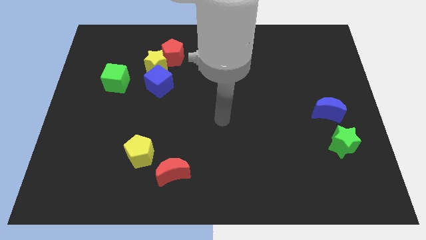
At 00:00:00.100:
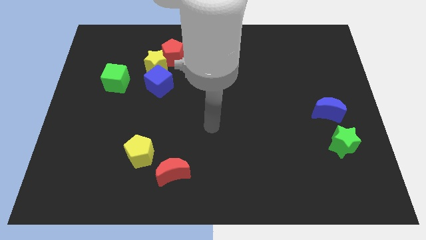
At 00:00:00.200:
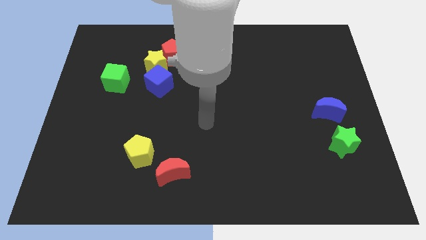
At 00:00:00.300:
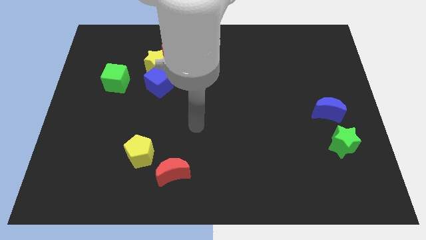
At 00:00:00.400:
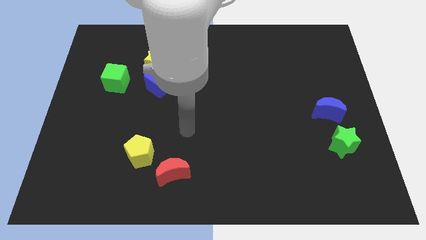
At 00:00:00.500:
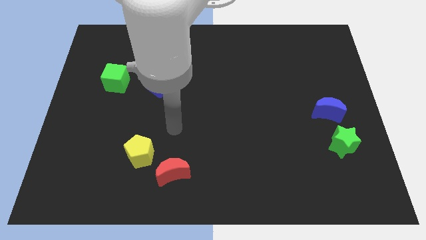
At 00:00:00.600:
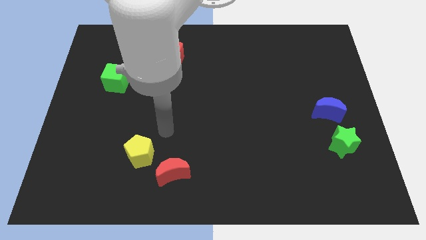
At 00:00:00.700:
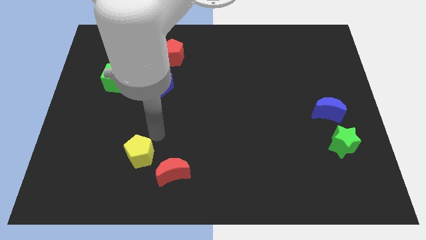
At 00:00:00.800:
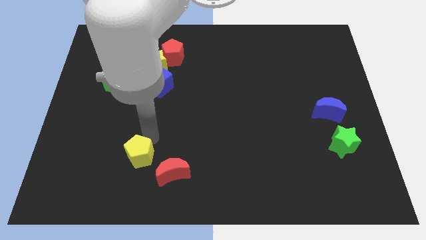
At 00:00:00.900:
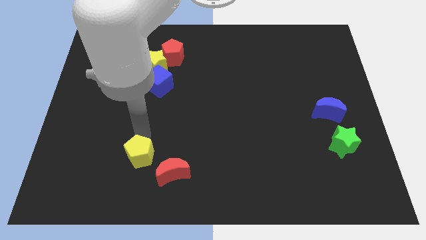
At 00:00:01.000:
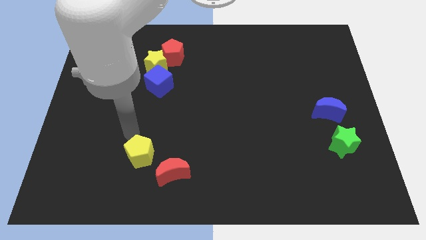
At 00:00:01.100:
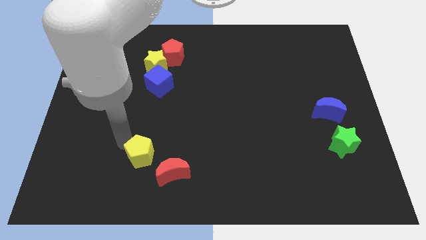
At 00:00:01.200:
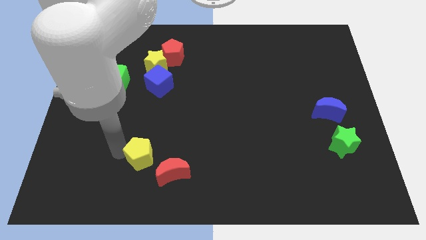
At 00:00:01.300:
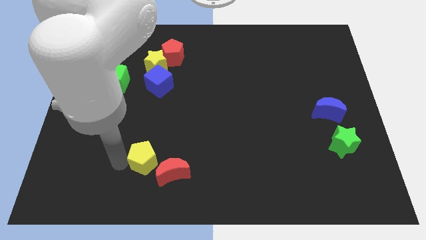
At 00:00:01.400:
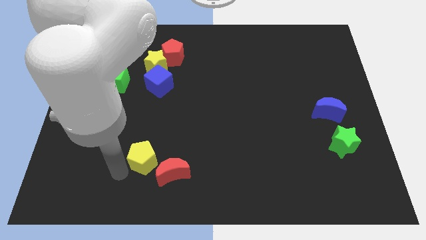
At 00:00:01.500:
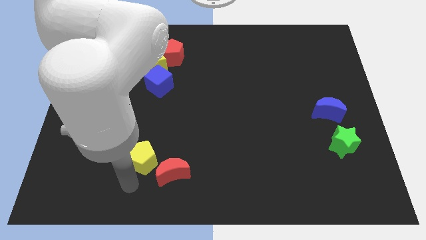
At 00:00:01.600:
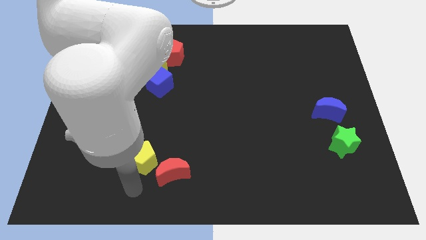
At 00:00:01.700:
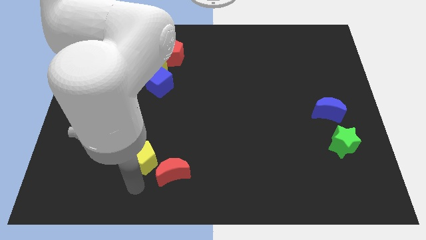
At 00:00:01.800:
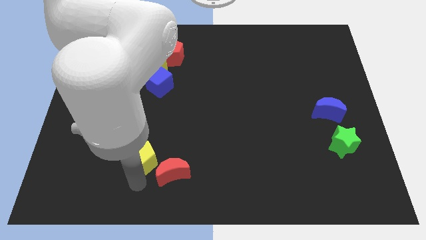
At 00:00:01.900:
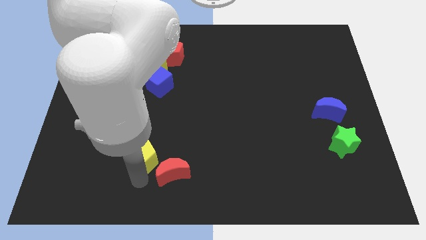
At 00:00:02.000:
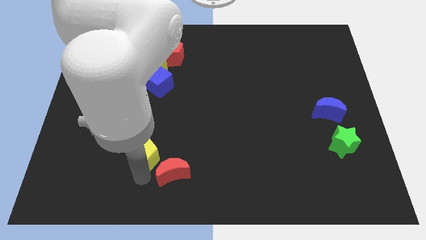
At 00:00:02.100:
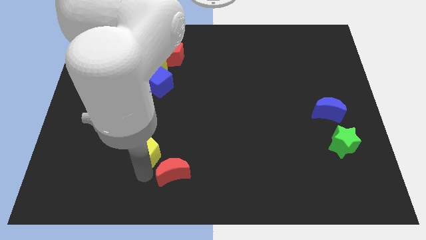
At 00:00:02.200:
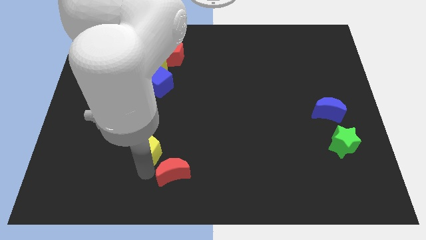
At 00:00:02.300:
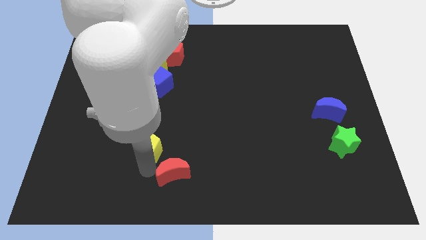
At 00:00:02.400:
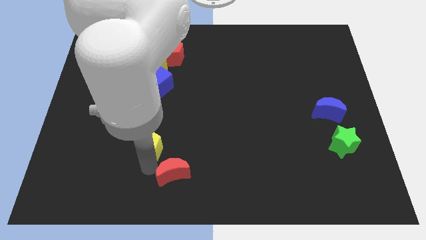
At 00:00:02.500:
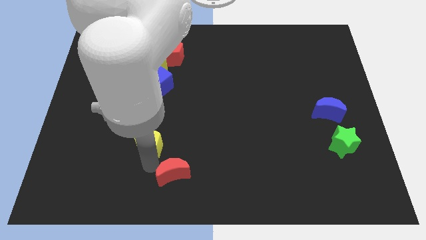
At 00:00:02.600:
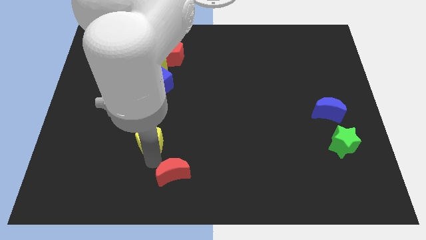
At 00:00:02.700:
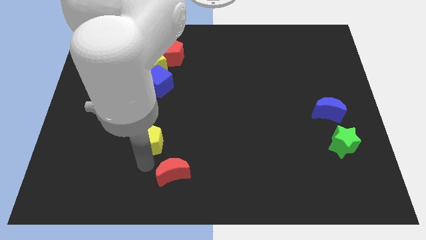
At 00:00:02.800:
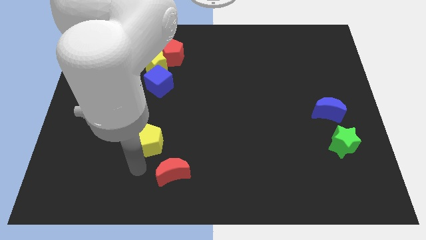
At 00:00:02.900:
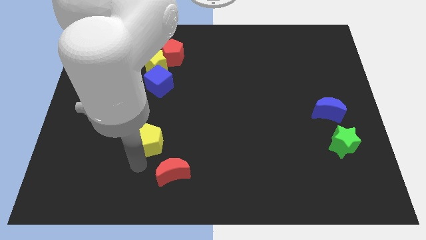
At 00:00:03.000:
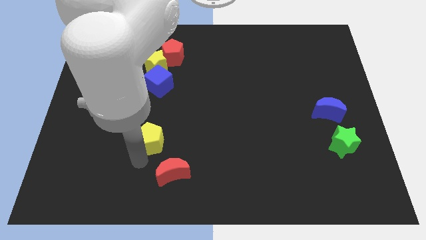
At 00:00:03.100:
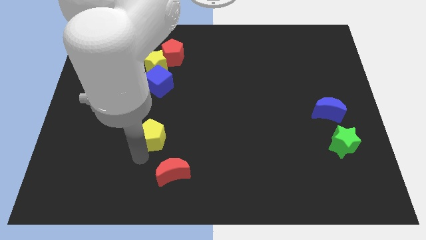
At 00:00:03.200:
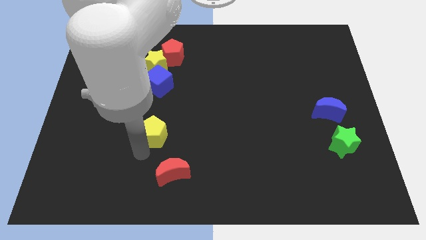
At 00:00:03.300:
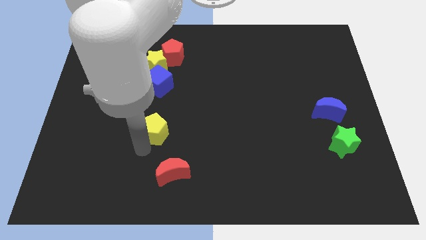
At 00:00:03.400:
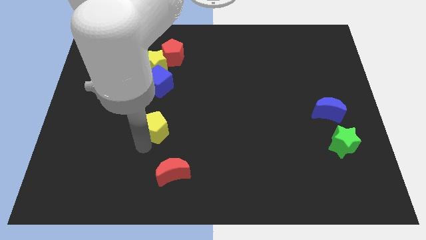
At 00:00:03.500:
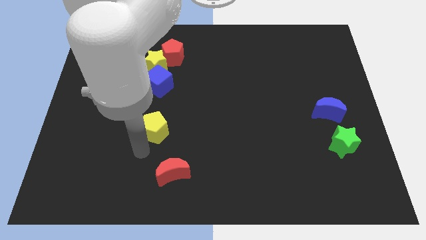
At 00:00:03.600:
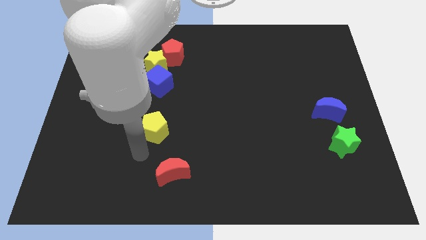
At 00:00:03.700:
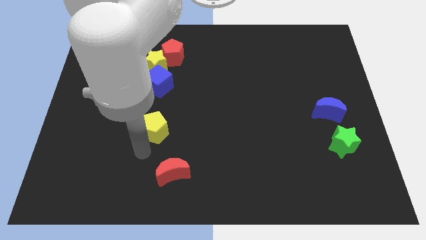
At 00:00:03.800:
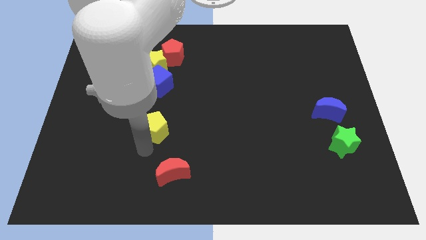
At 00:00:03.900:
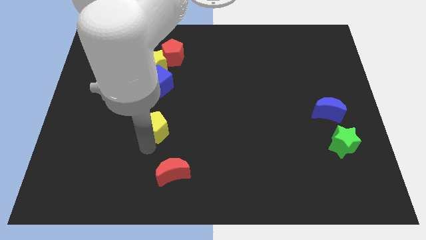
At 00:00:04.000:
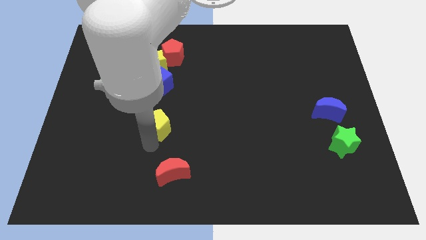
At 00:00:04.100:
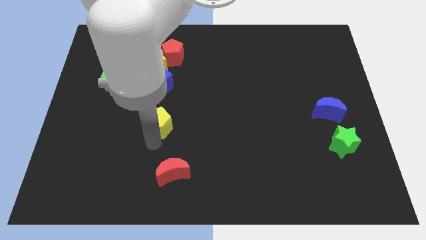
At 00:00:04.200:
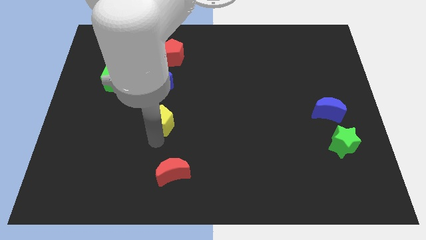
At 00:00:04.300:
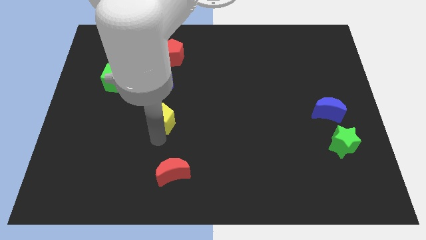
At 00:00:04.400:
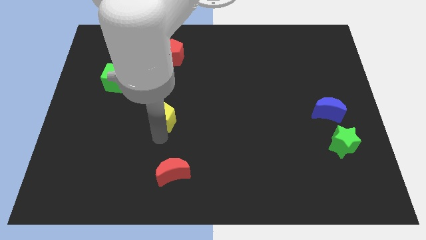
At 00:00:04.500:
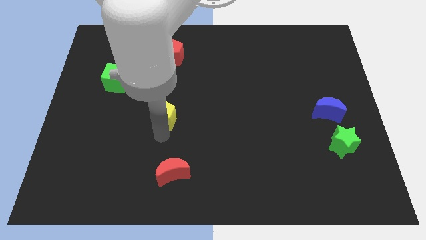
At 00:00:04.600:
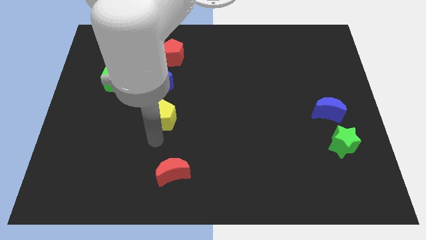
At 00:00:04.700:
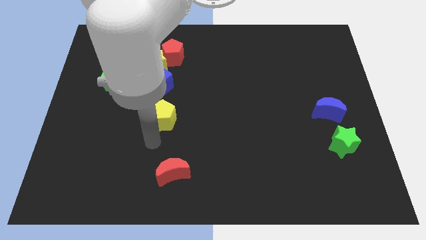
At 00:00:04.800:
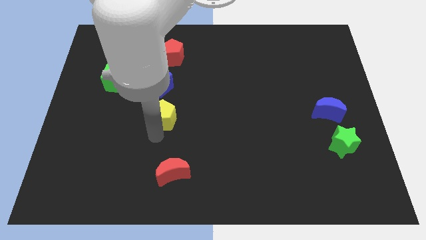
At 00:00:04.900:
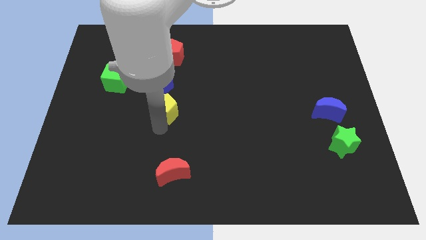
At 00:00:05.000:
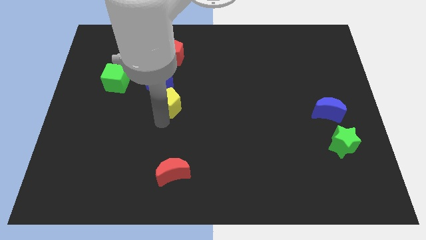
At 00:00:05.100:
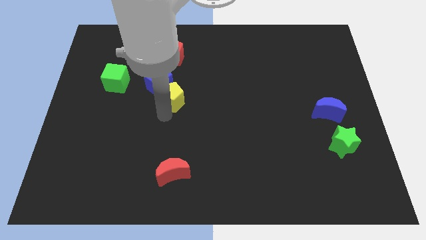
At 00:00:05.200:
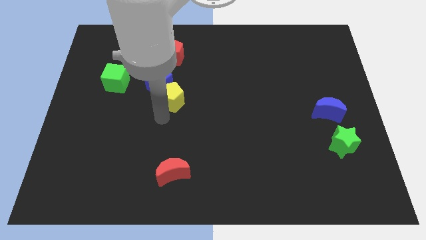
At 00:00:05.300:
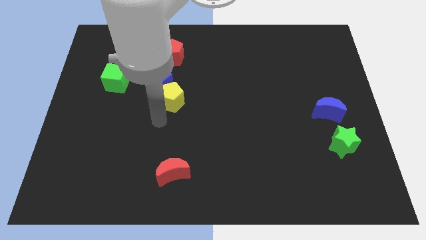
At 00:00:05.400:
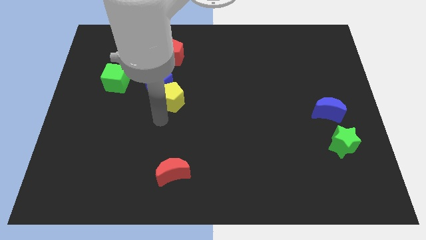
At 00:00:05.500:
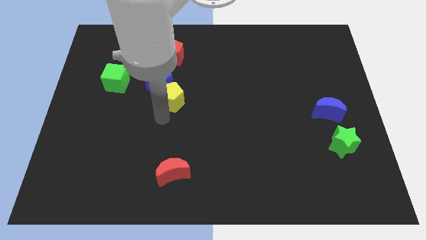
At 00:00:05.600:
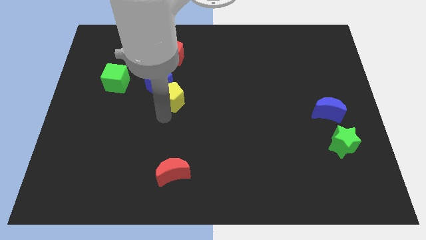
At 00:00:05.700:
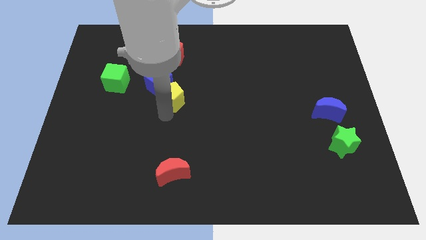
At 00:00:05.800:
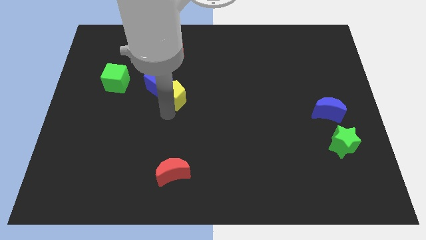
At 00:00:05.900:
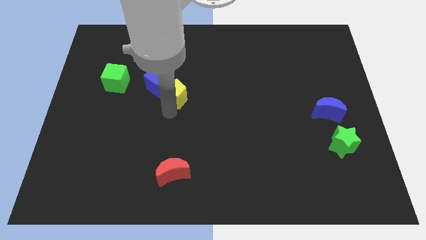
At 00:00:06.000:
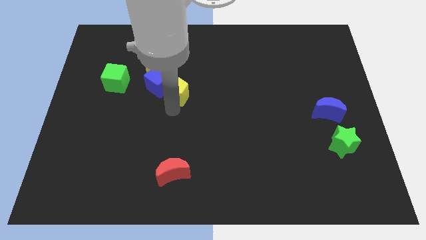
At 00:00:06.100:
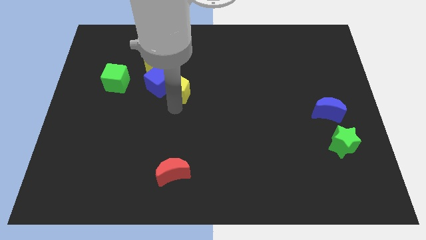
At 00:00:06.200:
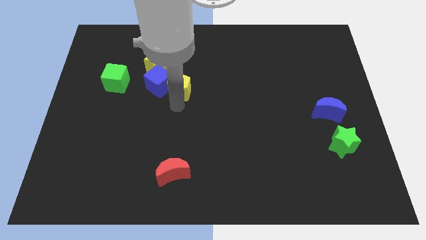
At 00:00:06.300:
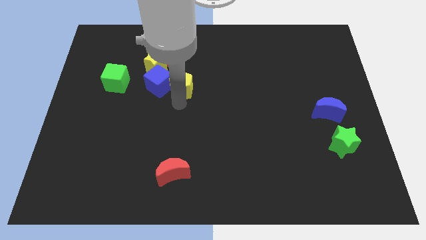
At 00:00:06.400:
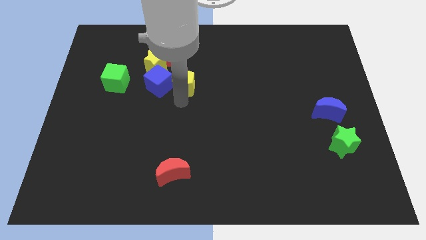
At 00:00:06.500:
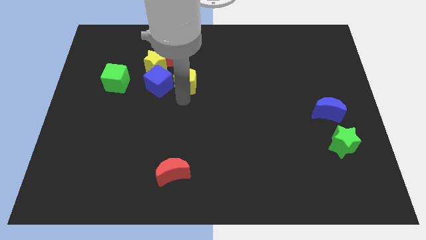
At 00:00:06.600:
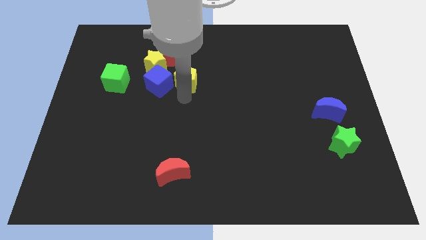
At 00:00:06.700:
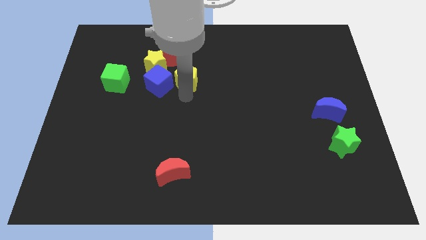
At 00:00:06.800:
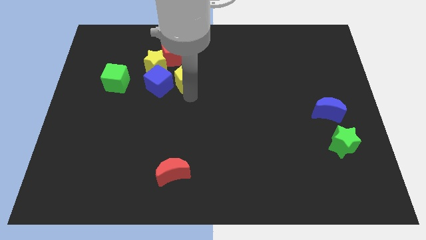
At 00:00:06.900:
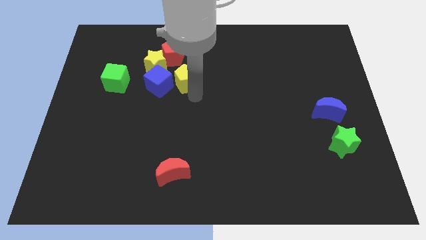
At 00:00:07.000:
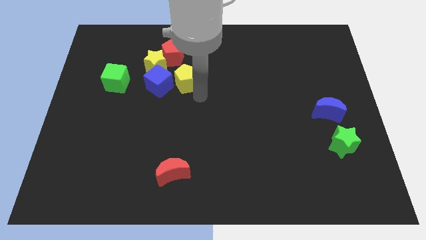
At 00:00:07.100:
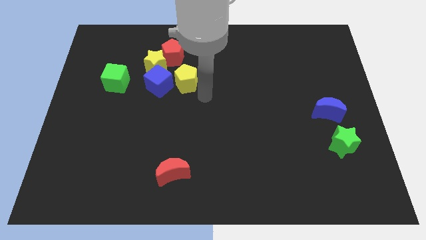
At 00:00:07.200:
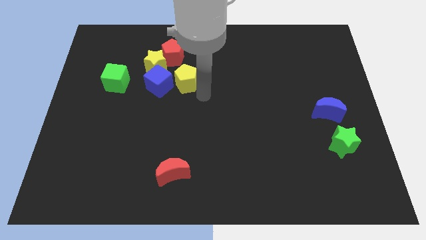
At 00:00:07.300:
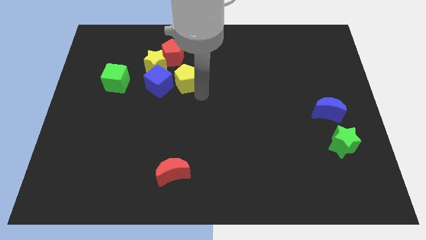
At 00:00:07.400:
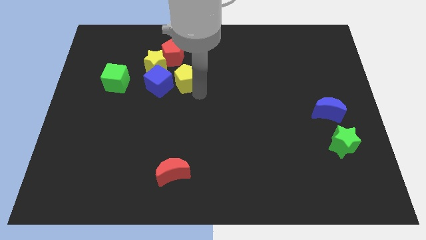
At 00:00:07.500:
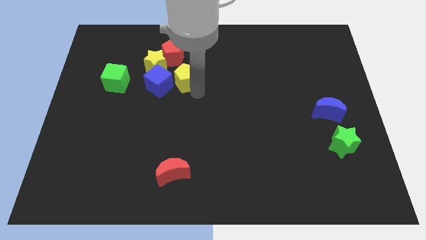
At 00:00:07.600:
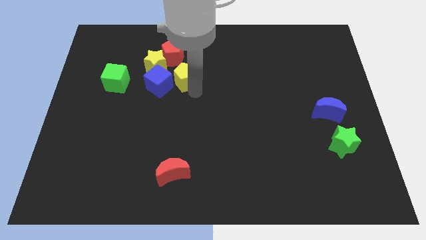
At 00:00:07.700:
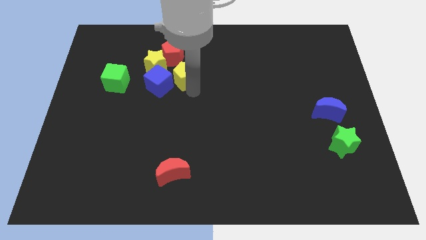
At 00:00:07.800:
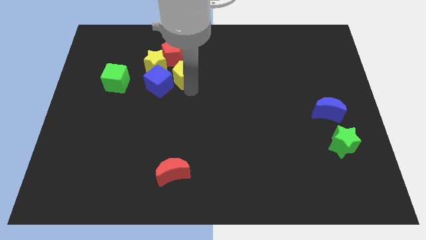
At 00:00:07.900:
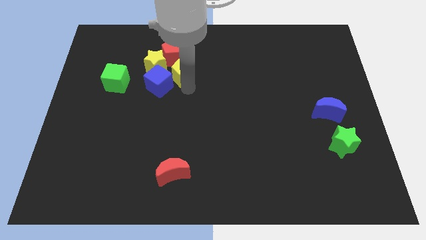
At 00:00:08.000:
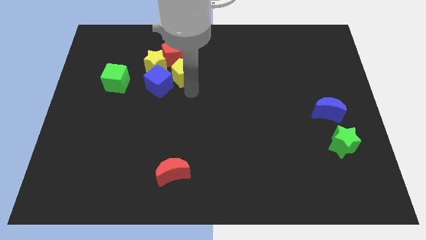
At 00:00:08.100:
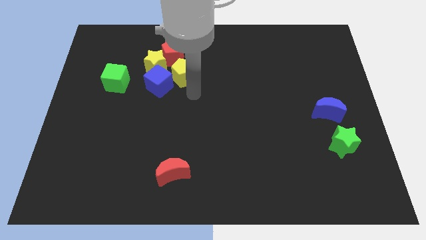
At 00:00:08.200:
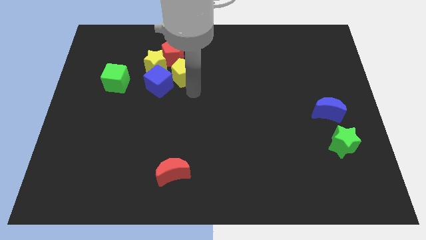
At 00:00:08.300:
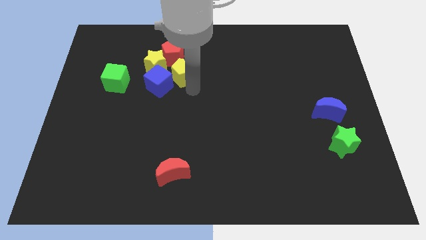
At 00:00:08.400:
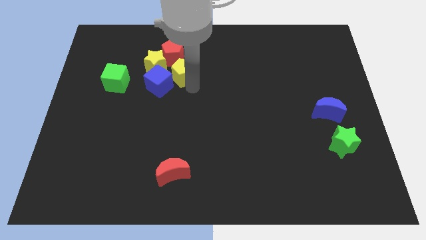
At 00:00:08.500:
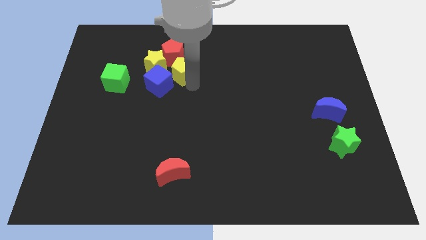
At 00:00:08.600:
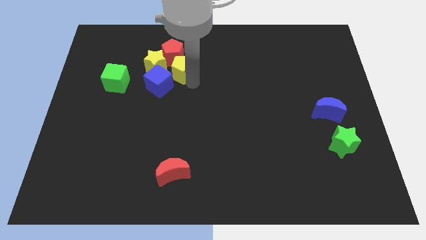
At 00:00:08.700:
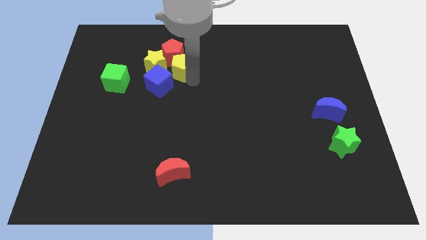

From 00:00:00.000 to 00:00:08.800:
put the yellow pentagon to the red pentagon
